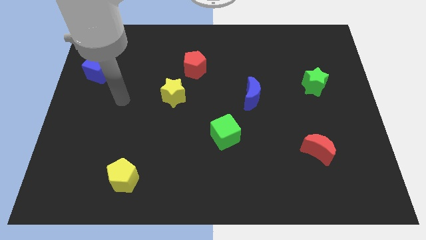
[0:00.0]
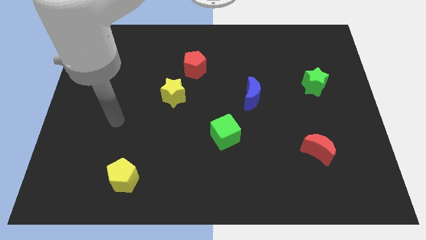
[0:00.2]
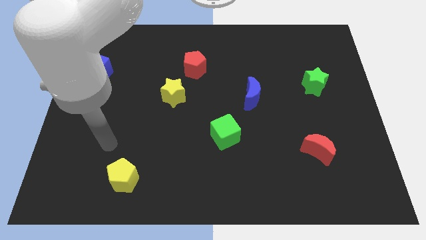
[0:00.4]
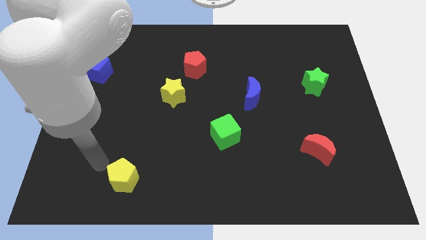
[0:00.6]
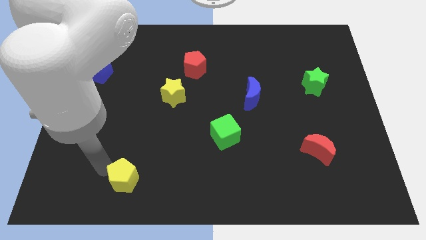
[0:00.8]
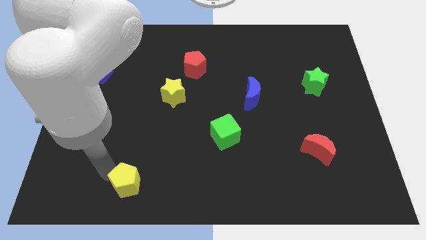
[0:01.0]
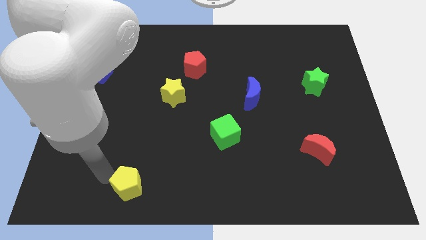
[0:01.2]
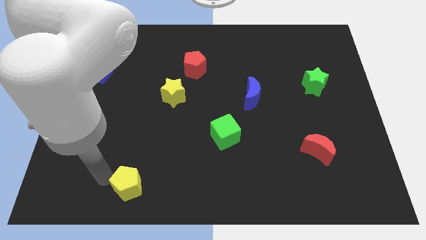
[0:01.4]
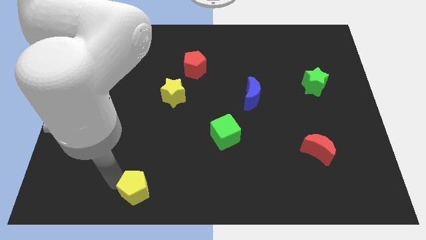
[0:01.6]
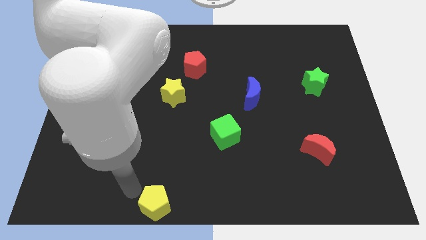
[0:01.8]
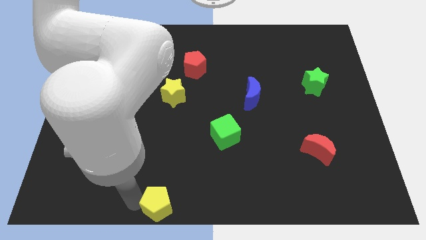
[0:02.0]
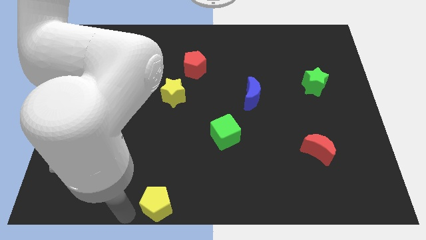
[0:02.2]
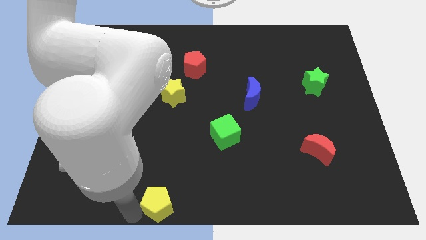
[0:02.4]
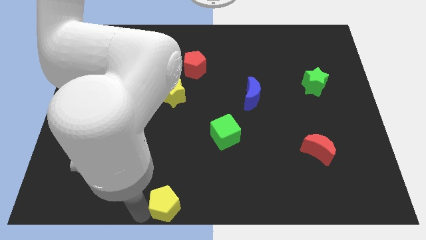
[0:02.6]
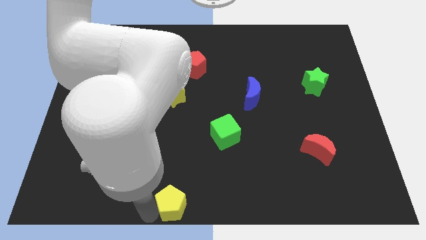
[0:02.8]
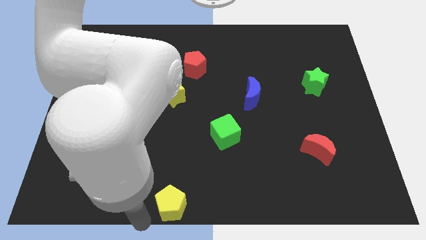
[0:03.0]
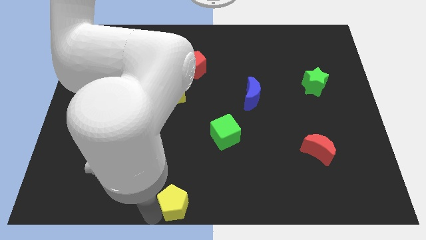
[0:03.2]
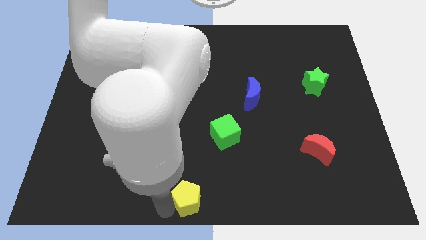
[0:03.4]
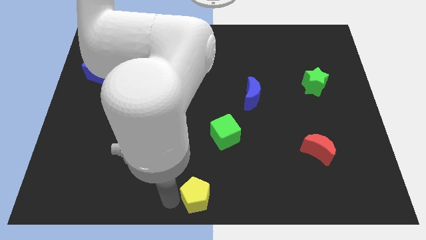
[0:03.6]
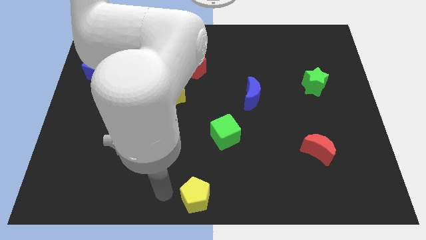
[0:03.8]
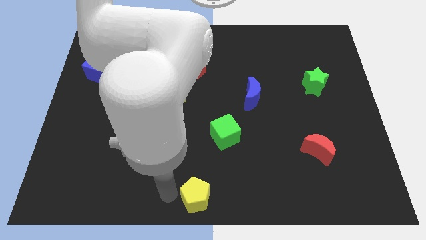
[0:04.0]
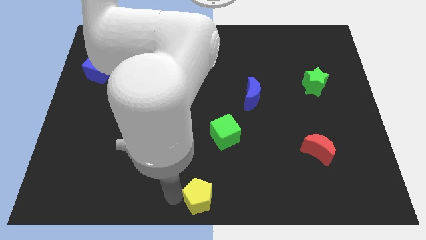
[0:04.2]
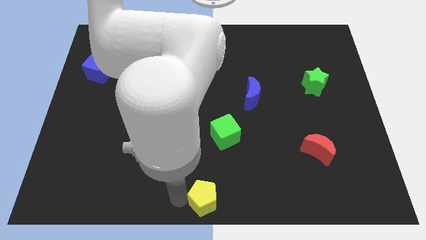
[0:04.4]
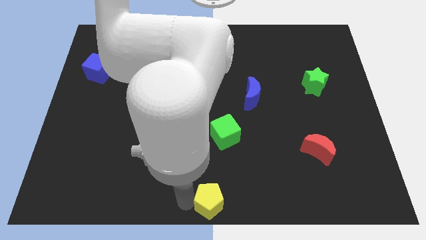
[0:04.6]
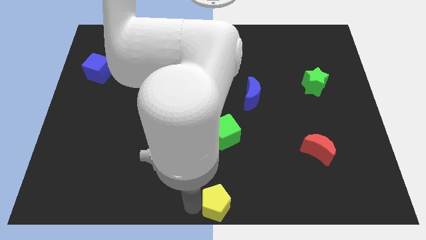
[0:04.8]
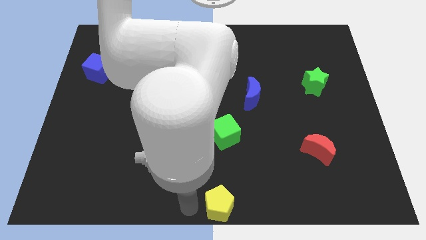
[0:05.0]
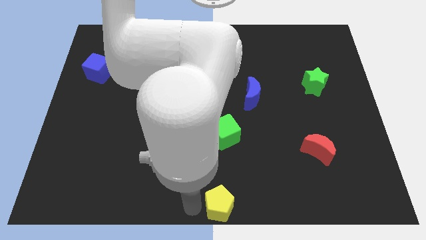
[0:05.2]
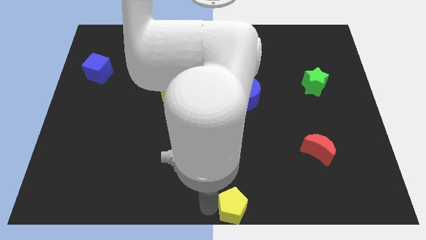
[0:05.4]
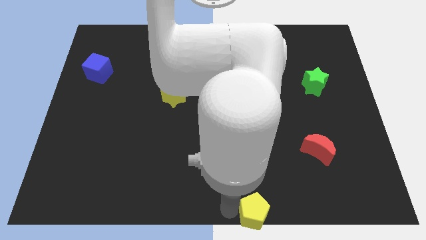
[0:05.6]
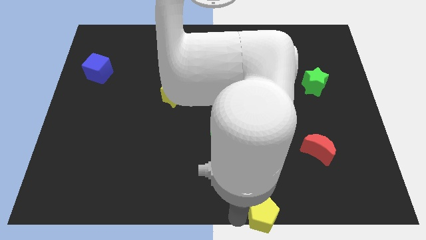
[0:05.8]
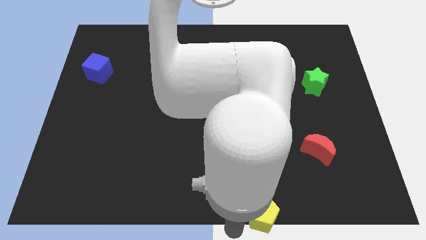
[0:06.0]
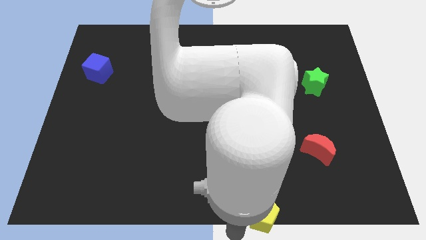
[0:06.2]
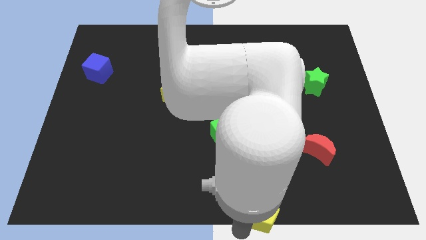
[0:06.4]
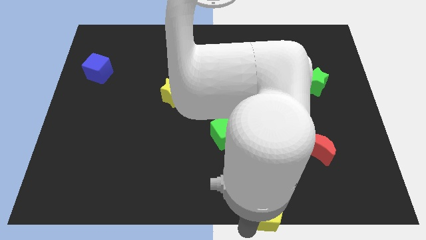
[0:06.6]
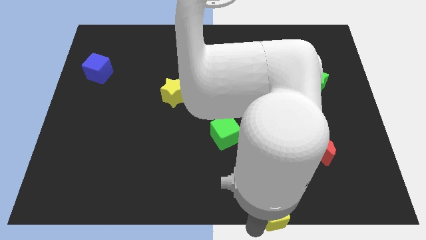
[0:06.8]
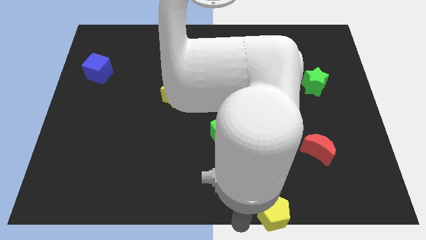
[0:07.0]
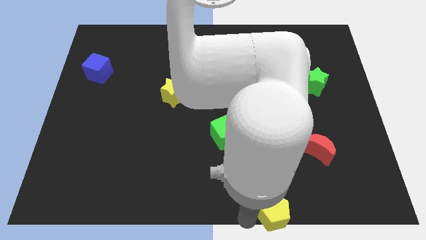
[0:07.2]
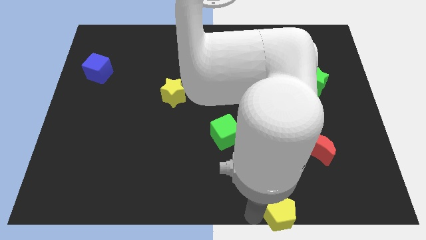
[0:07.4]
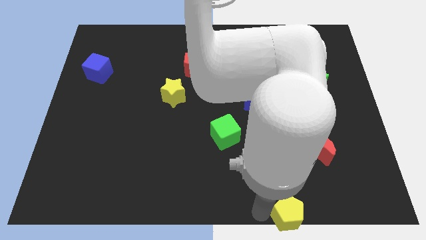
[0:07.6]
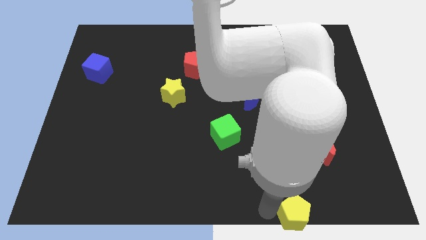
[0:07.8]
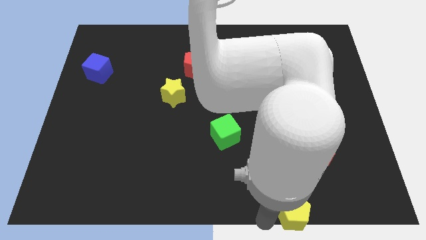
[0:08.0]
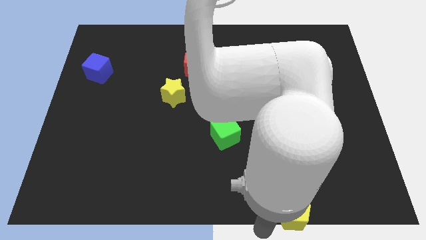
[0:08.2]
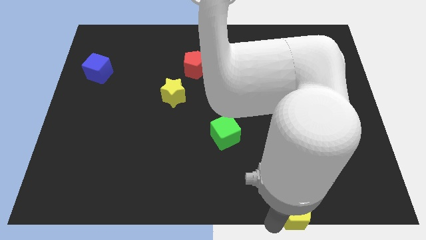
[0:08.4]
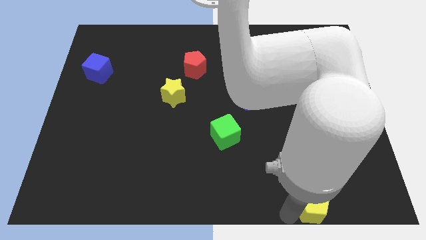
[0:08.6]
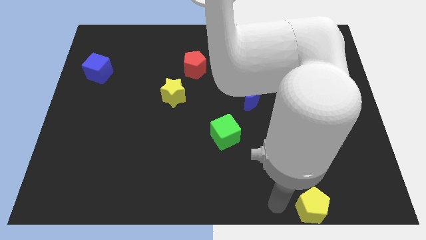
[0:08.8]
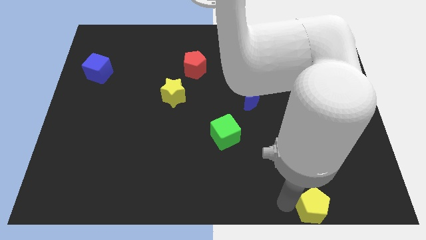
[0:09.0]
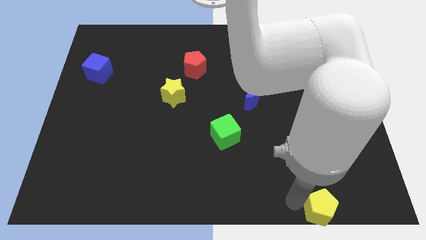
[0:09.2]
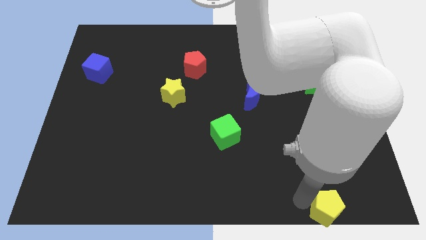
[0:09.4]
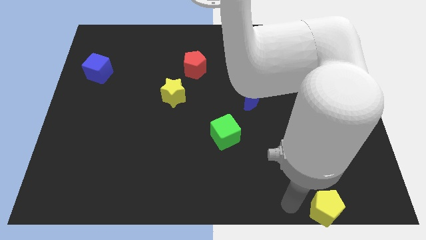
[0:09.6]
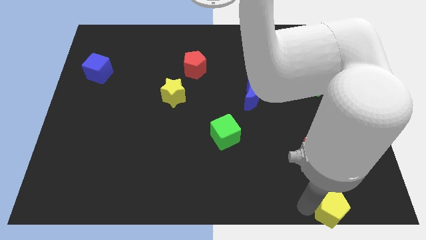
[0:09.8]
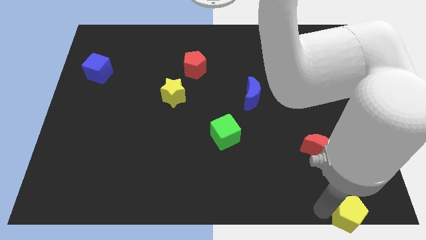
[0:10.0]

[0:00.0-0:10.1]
move the yellow pentagon to the bottom right corner

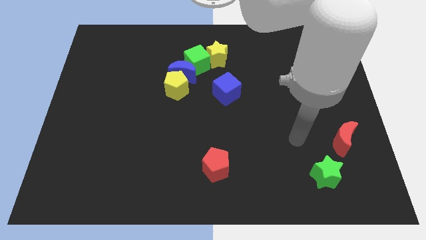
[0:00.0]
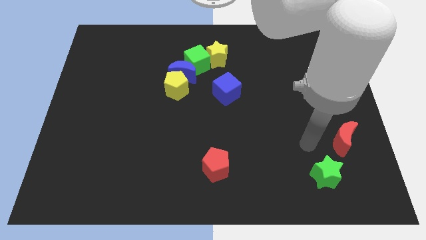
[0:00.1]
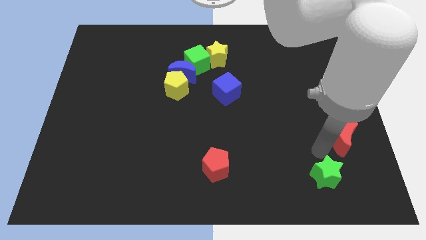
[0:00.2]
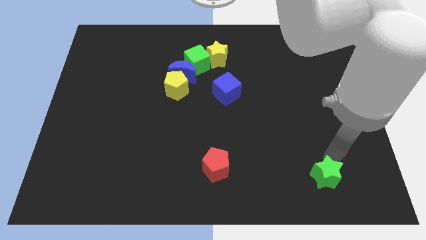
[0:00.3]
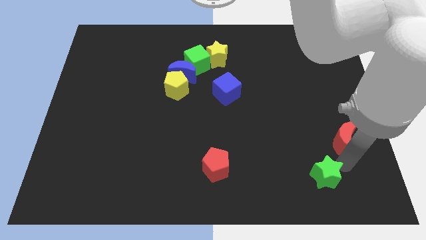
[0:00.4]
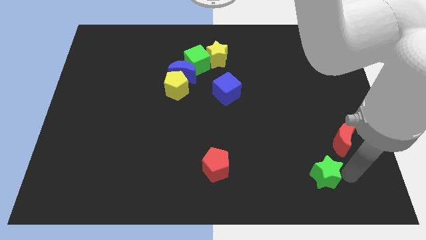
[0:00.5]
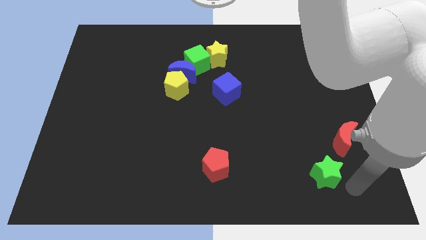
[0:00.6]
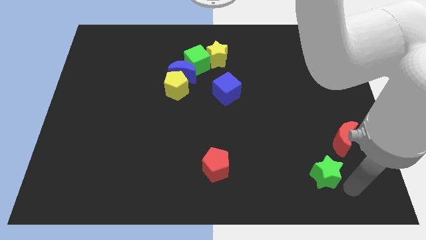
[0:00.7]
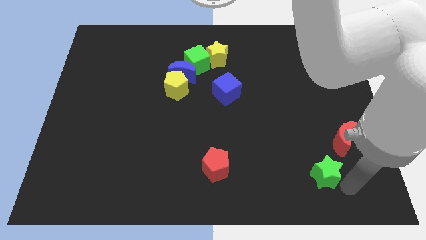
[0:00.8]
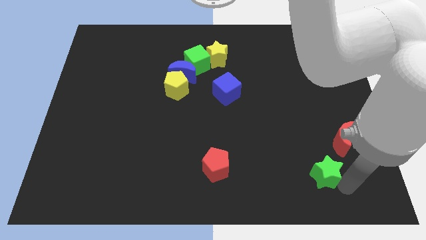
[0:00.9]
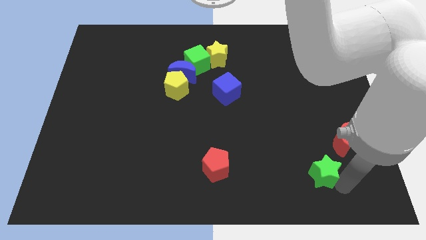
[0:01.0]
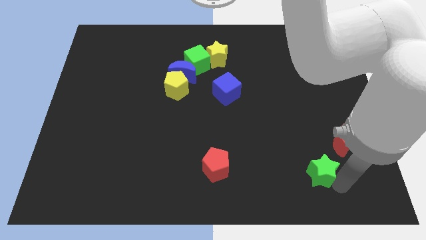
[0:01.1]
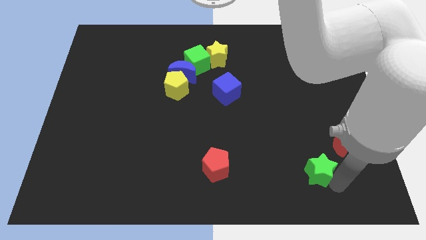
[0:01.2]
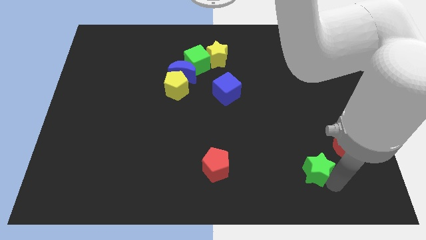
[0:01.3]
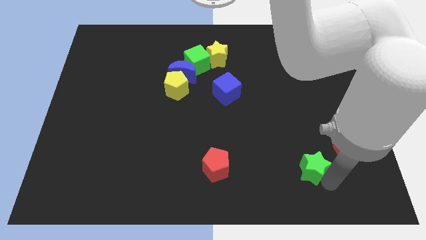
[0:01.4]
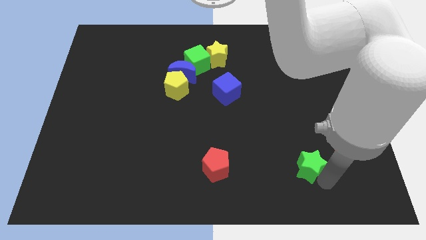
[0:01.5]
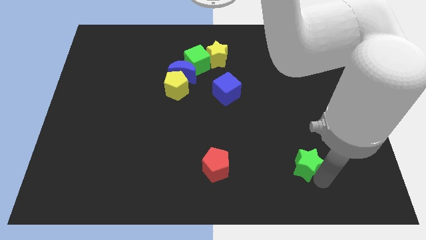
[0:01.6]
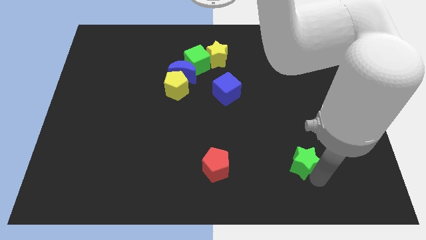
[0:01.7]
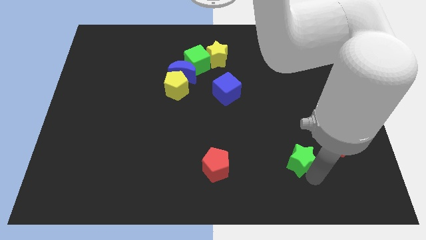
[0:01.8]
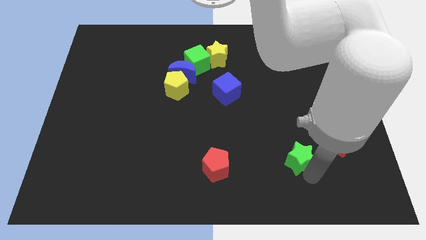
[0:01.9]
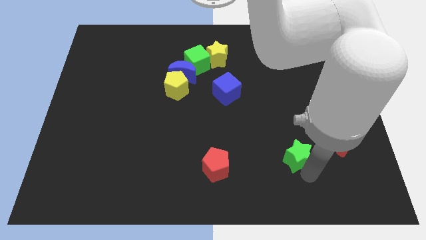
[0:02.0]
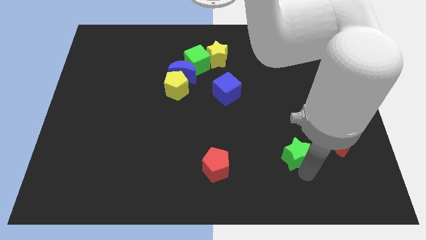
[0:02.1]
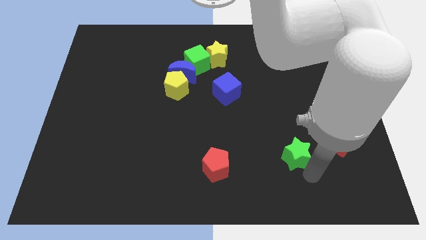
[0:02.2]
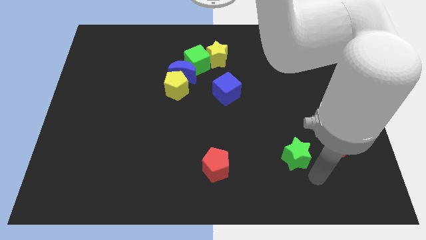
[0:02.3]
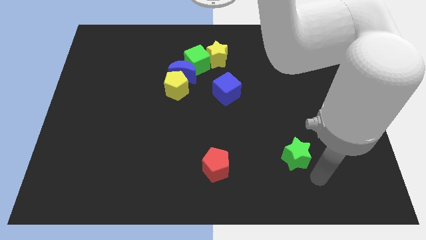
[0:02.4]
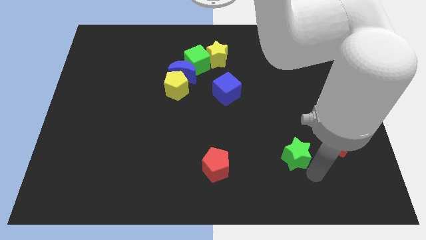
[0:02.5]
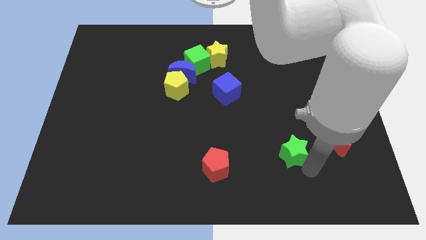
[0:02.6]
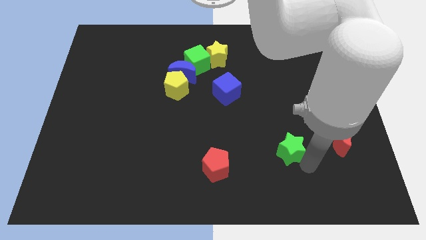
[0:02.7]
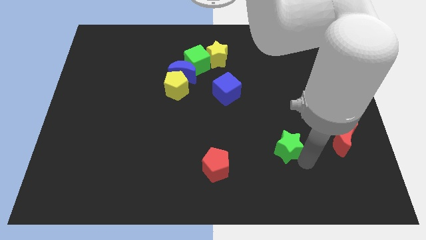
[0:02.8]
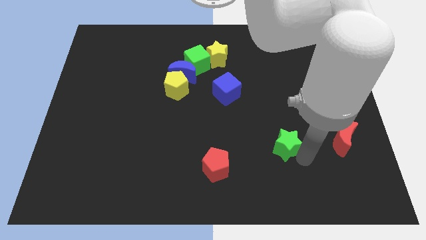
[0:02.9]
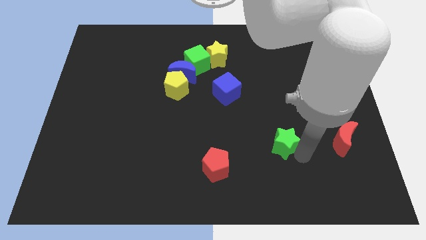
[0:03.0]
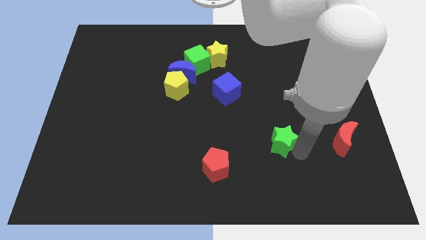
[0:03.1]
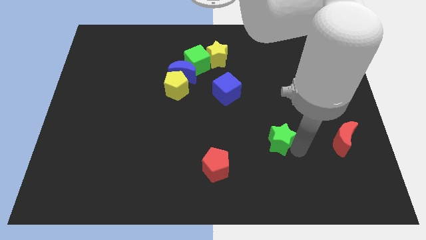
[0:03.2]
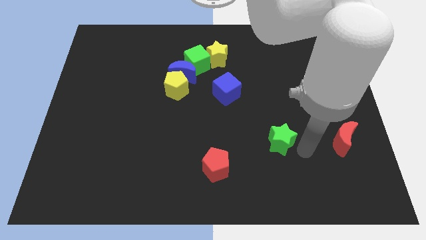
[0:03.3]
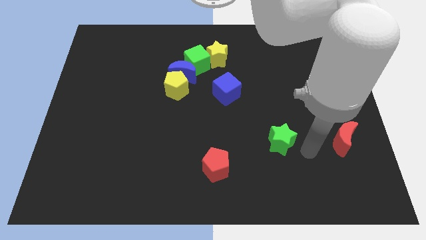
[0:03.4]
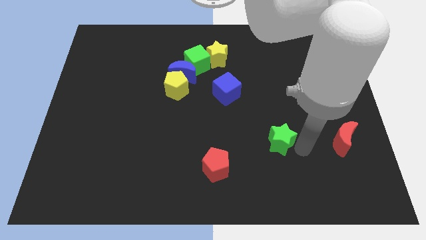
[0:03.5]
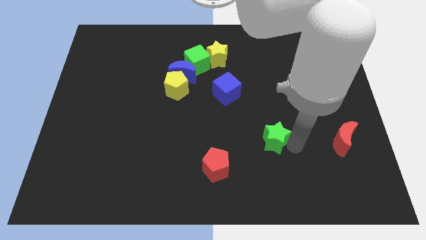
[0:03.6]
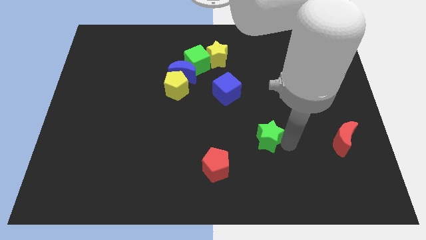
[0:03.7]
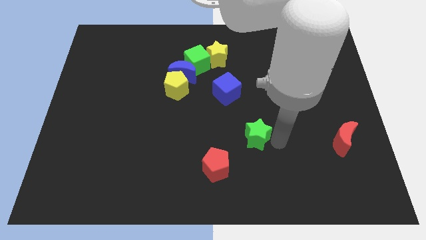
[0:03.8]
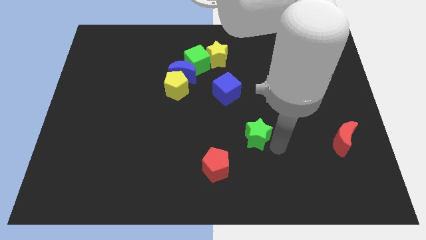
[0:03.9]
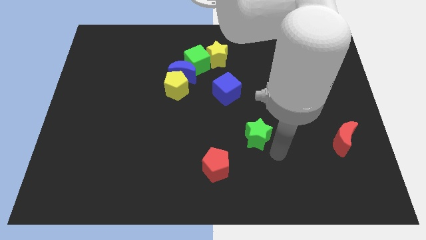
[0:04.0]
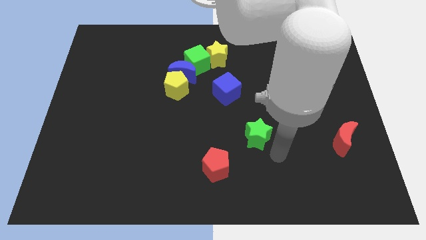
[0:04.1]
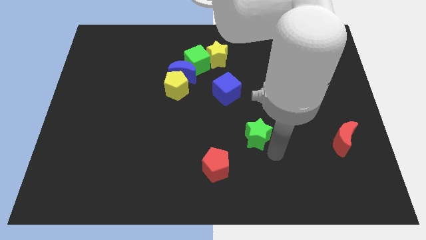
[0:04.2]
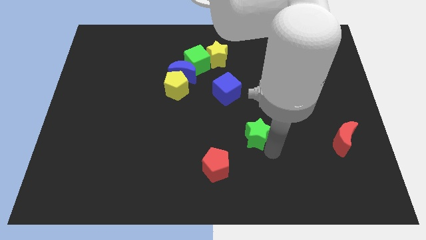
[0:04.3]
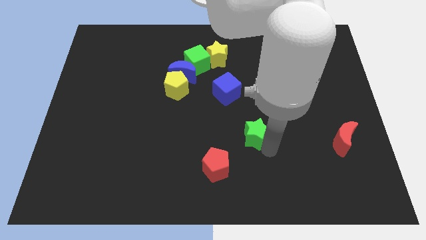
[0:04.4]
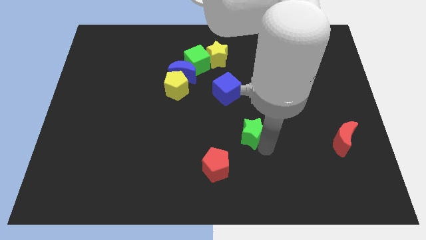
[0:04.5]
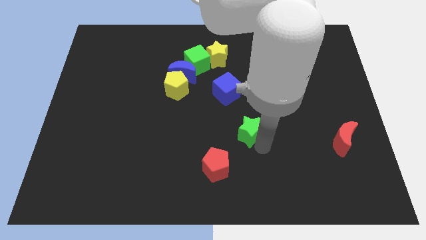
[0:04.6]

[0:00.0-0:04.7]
slide the green star to the center of the board
